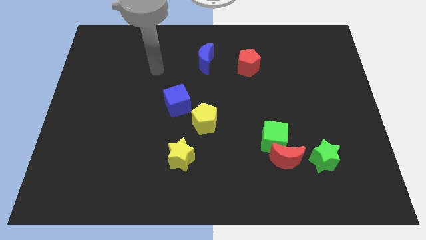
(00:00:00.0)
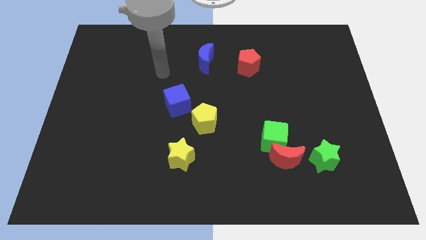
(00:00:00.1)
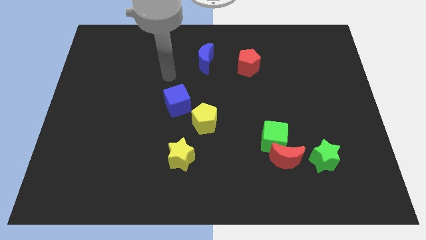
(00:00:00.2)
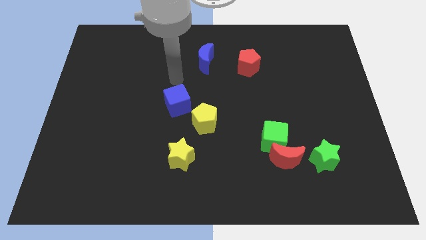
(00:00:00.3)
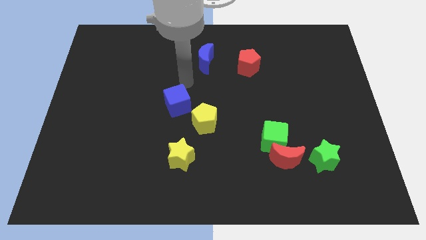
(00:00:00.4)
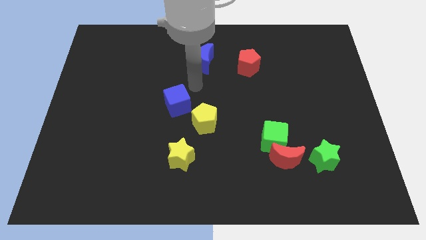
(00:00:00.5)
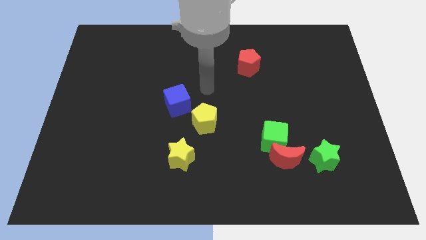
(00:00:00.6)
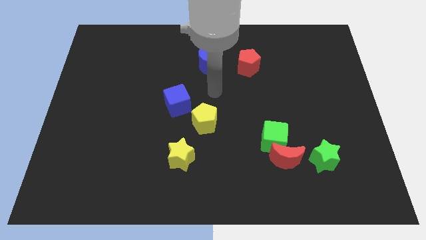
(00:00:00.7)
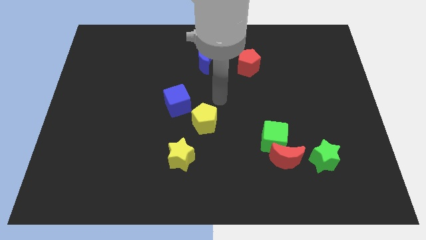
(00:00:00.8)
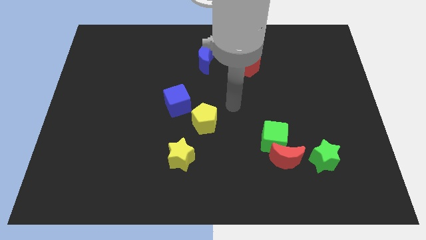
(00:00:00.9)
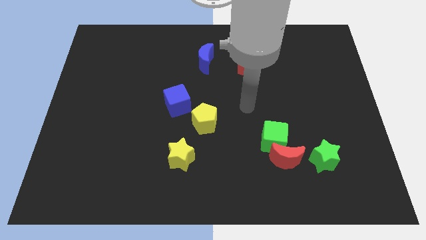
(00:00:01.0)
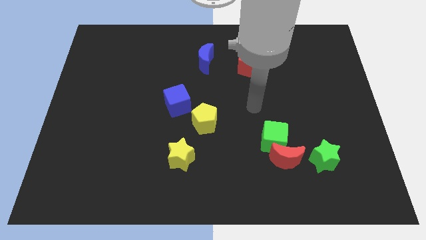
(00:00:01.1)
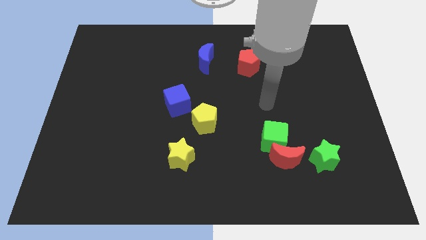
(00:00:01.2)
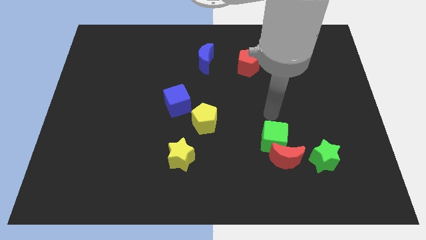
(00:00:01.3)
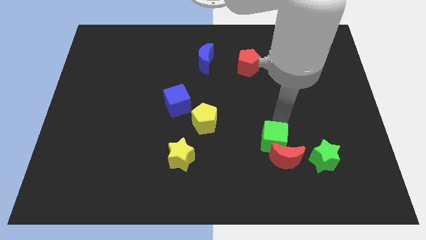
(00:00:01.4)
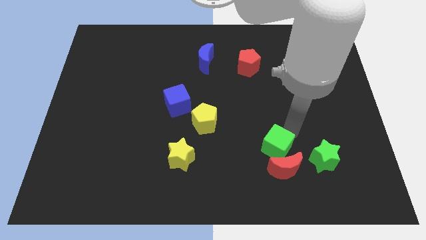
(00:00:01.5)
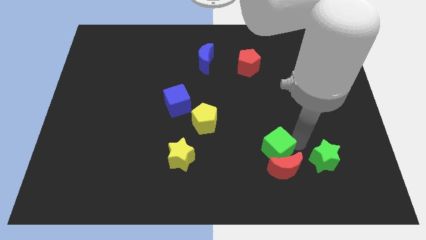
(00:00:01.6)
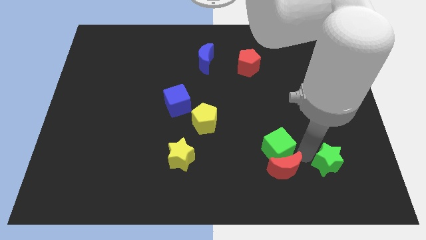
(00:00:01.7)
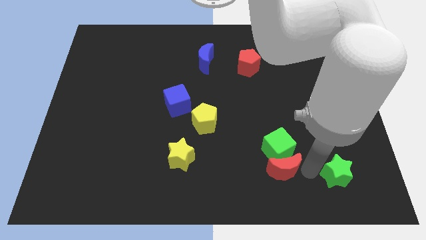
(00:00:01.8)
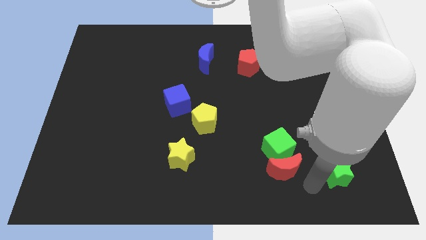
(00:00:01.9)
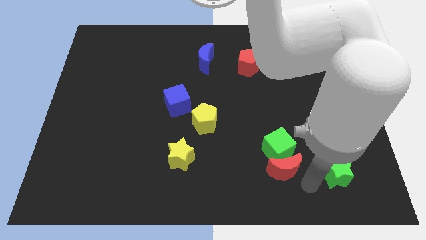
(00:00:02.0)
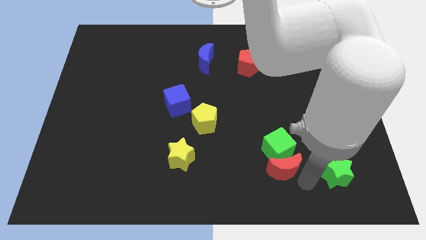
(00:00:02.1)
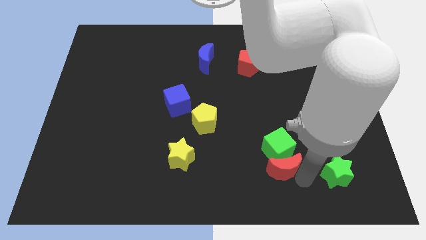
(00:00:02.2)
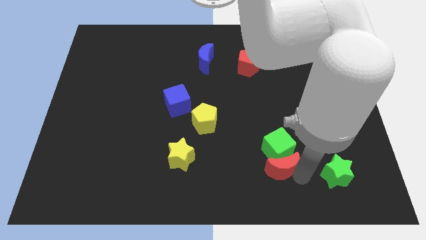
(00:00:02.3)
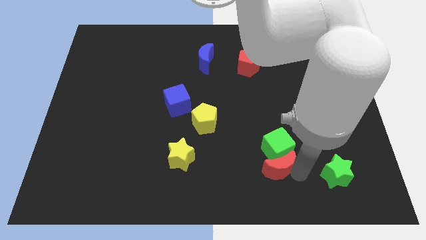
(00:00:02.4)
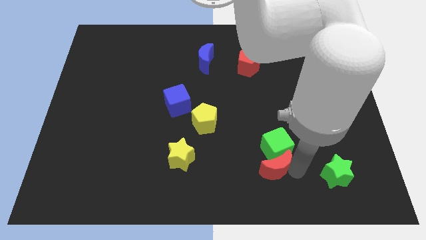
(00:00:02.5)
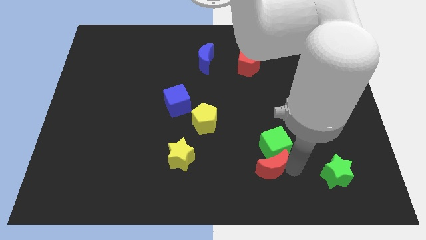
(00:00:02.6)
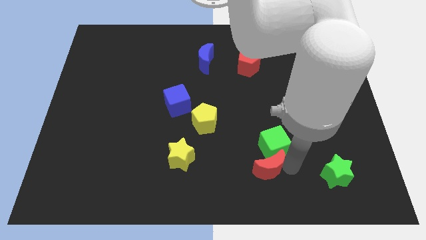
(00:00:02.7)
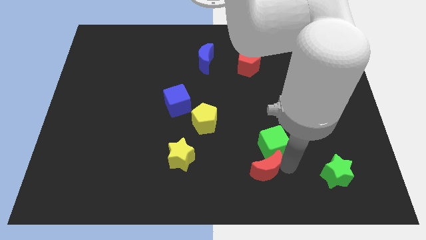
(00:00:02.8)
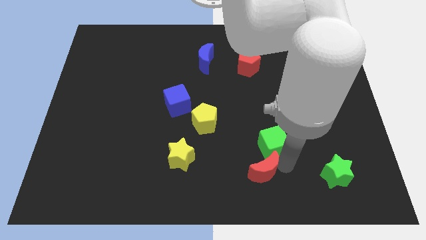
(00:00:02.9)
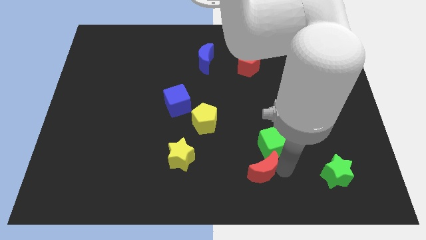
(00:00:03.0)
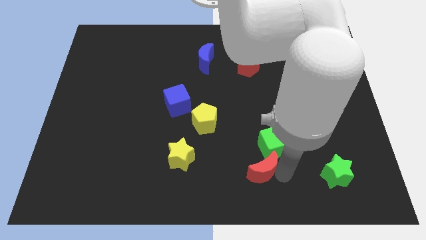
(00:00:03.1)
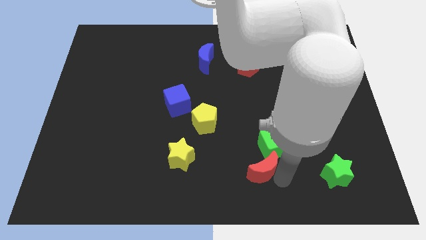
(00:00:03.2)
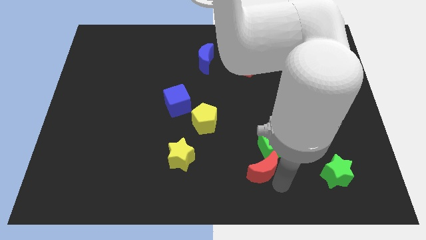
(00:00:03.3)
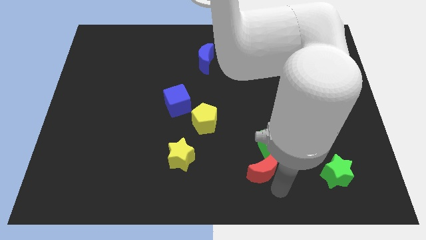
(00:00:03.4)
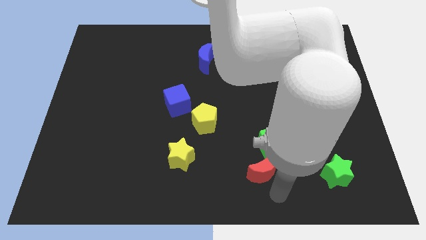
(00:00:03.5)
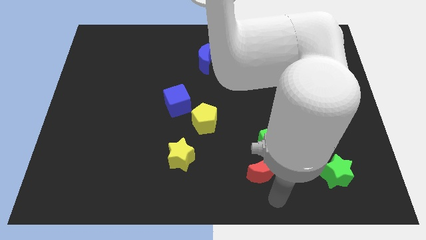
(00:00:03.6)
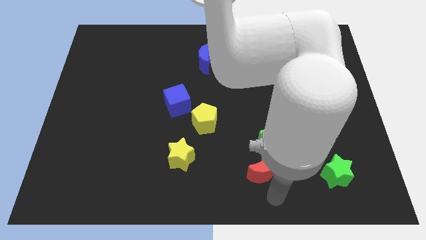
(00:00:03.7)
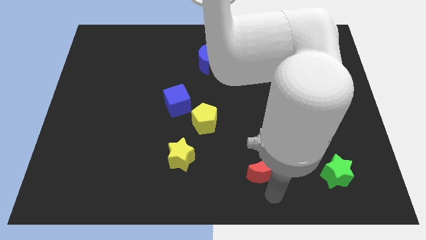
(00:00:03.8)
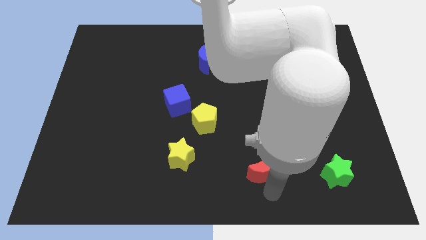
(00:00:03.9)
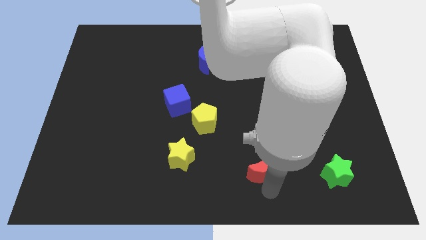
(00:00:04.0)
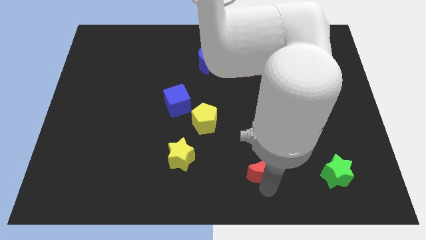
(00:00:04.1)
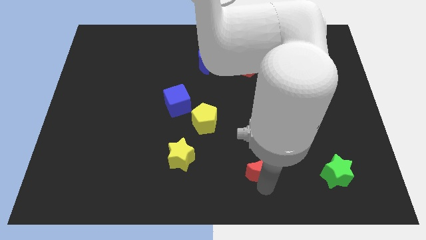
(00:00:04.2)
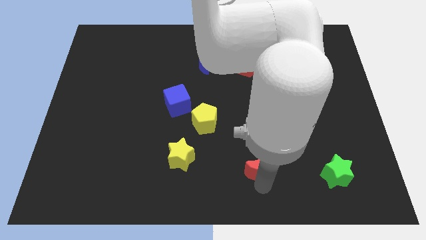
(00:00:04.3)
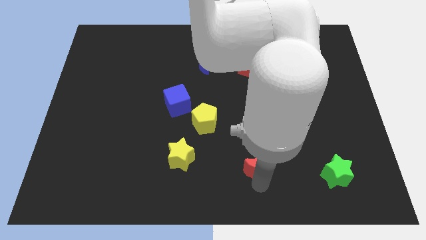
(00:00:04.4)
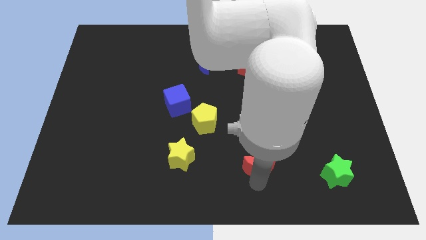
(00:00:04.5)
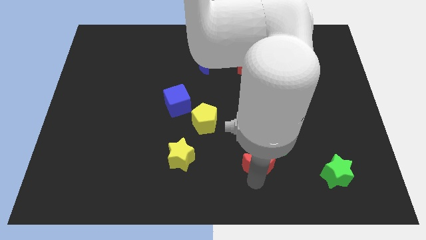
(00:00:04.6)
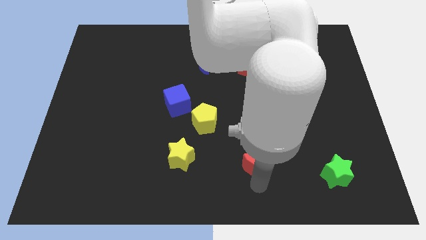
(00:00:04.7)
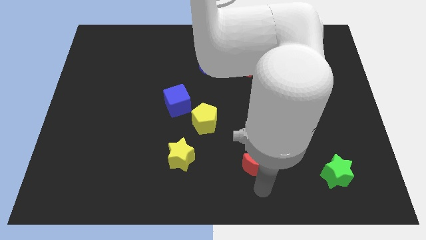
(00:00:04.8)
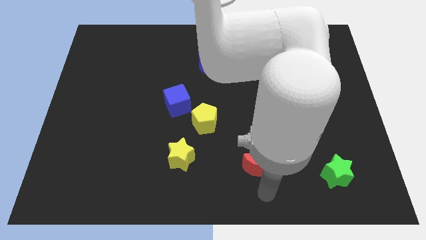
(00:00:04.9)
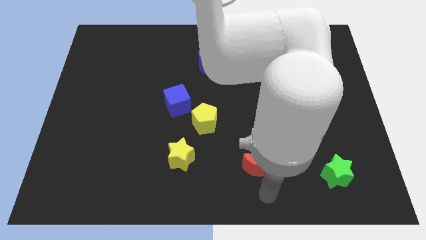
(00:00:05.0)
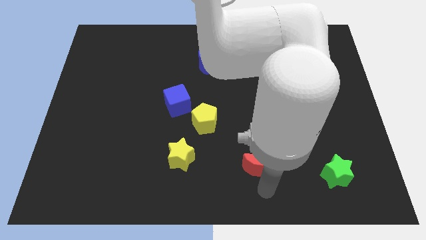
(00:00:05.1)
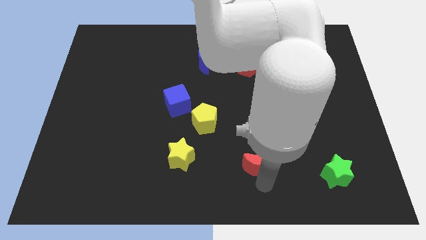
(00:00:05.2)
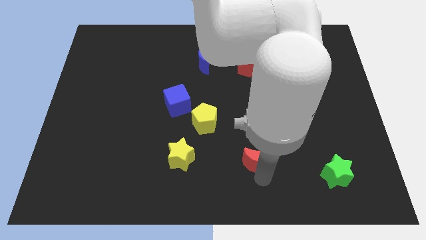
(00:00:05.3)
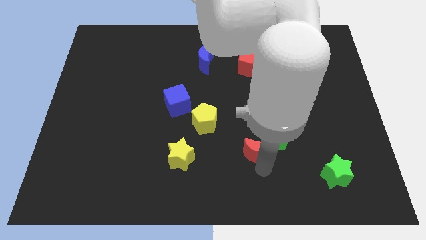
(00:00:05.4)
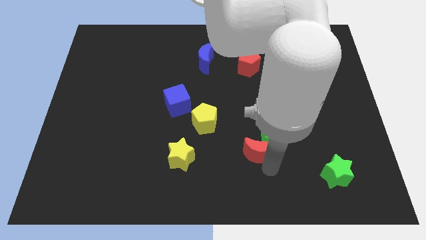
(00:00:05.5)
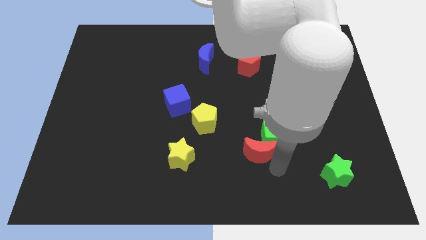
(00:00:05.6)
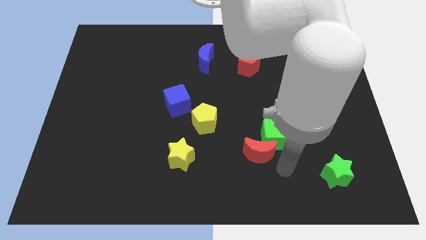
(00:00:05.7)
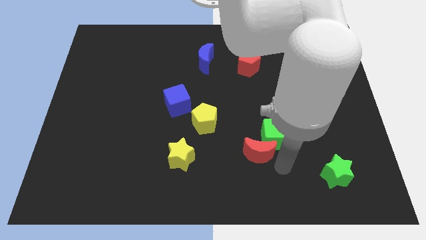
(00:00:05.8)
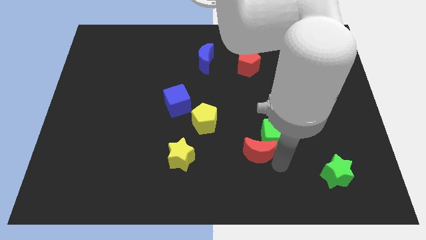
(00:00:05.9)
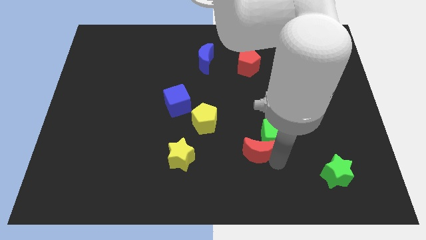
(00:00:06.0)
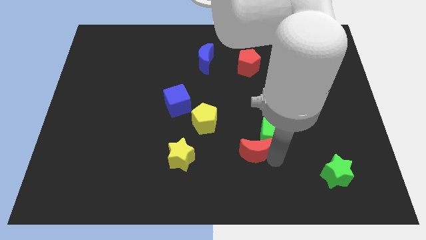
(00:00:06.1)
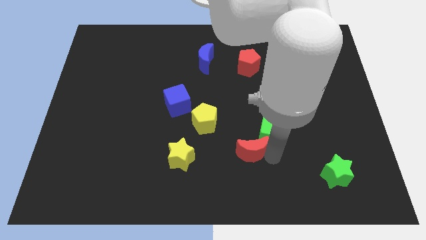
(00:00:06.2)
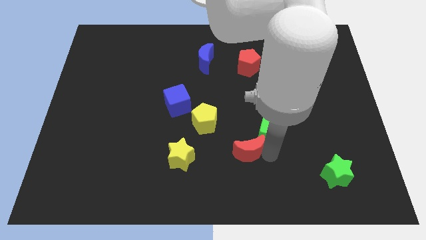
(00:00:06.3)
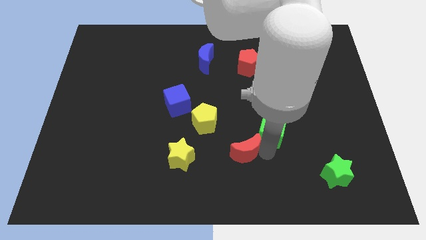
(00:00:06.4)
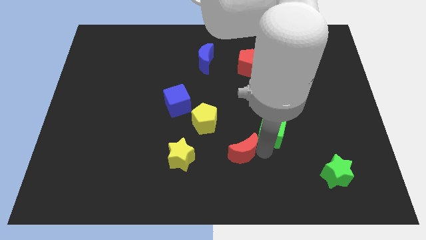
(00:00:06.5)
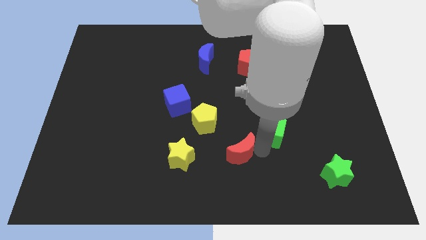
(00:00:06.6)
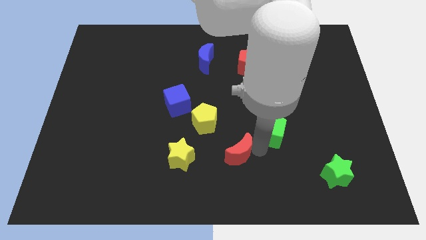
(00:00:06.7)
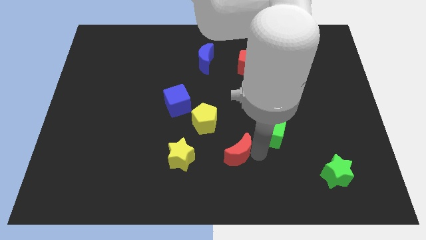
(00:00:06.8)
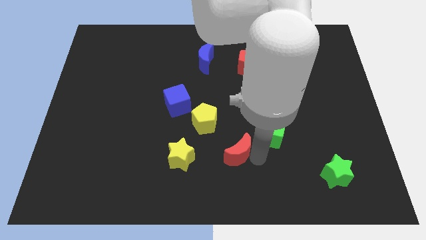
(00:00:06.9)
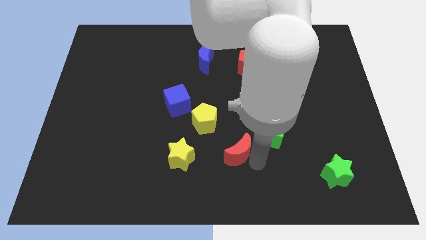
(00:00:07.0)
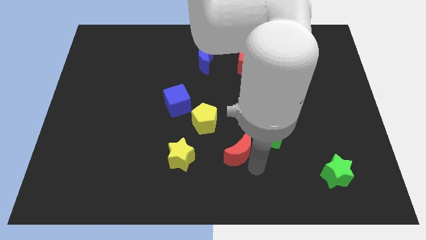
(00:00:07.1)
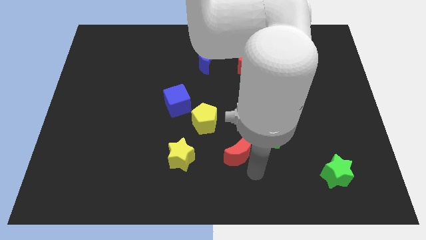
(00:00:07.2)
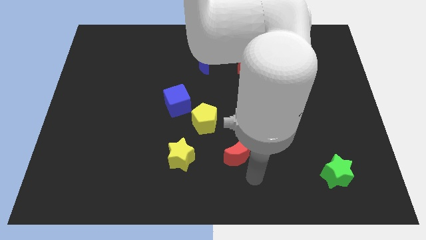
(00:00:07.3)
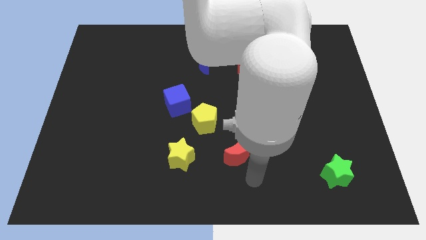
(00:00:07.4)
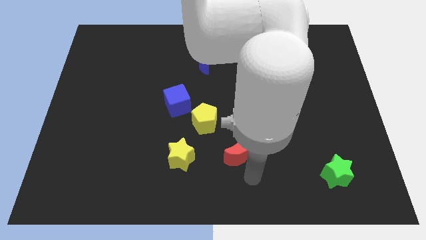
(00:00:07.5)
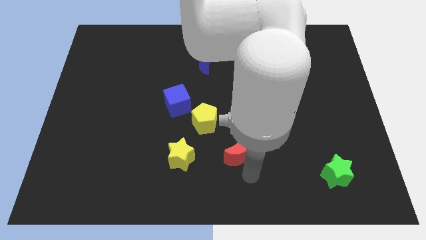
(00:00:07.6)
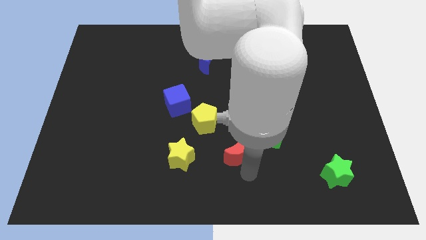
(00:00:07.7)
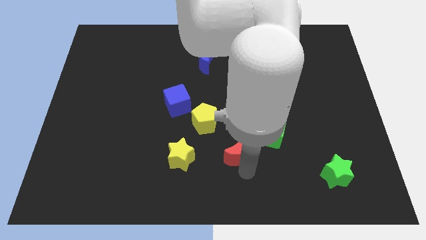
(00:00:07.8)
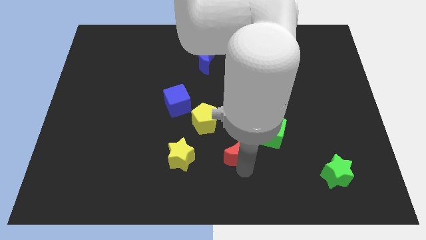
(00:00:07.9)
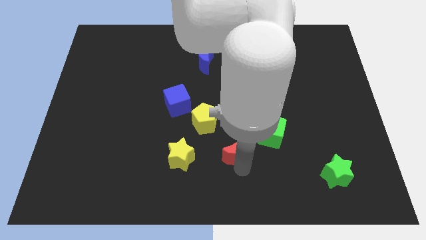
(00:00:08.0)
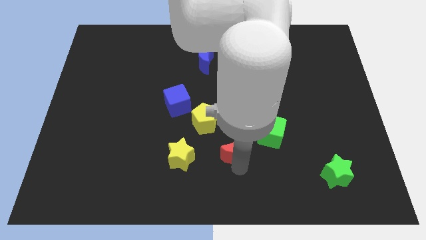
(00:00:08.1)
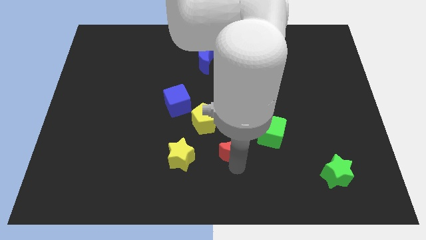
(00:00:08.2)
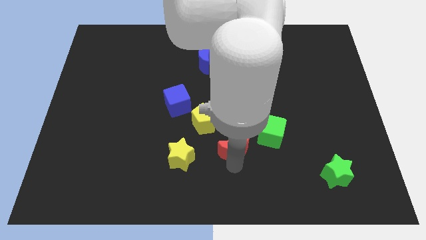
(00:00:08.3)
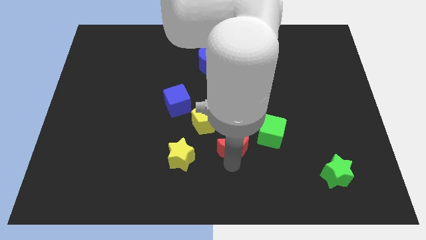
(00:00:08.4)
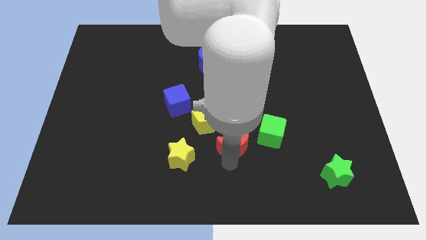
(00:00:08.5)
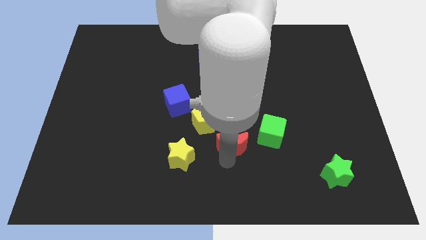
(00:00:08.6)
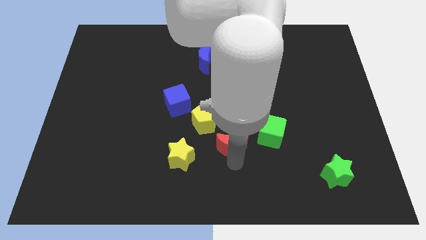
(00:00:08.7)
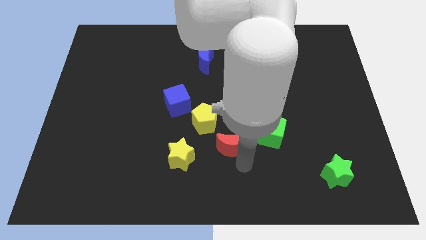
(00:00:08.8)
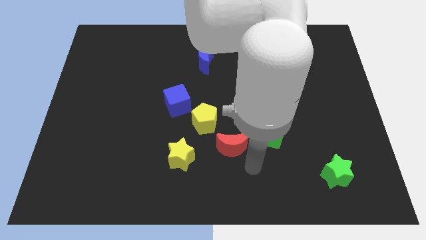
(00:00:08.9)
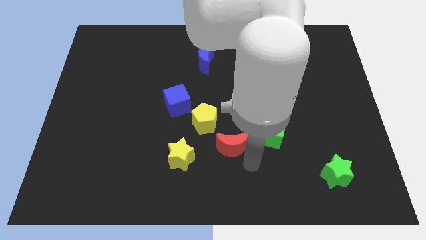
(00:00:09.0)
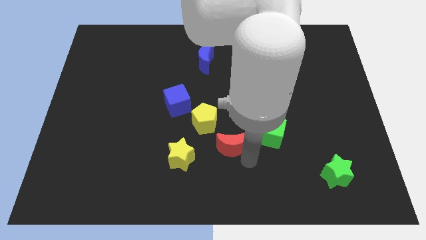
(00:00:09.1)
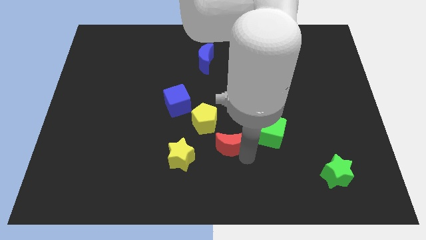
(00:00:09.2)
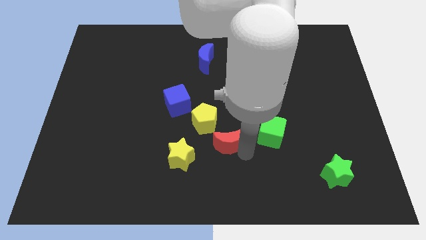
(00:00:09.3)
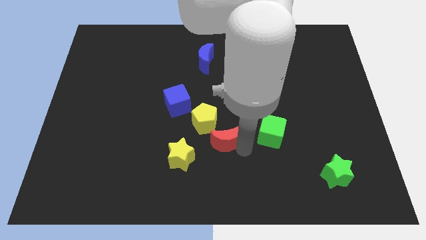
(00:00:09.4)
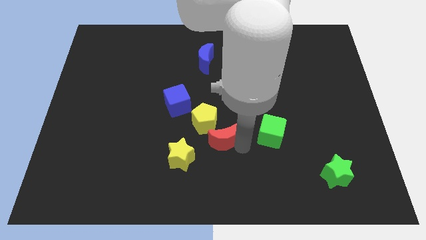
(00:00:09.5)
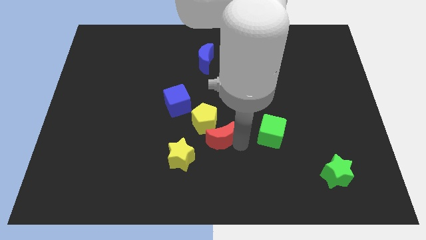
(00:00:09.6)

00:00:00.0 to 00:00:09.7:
slide the red moon towards the yellow pentagon
